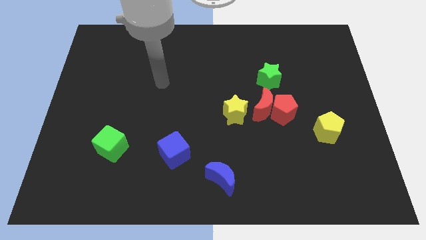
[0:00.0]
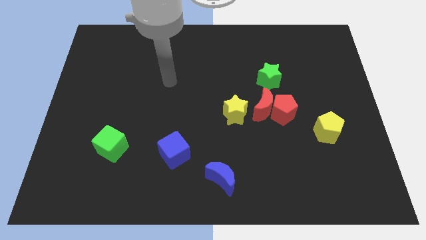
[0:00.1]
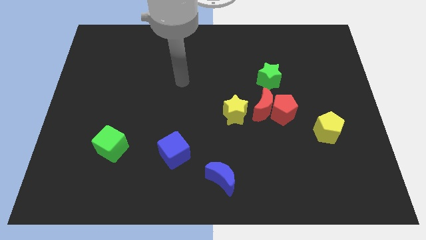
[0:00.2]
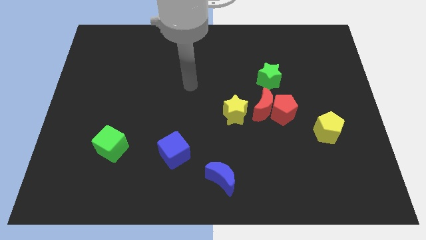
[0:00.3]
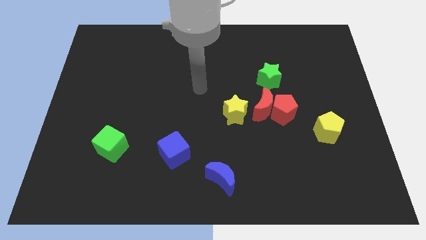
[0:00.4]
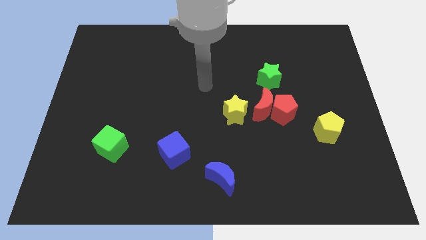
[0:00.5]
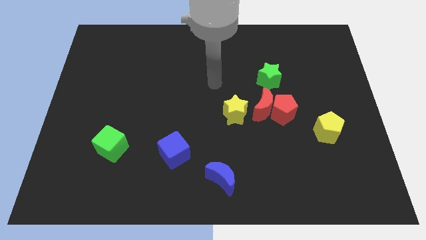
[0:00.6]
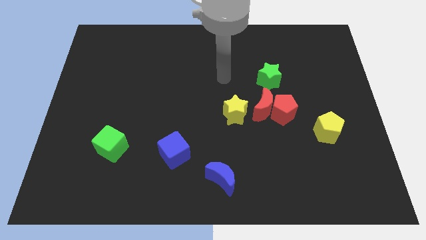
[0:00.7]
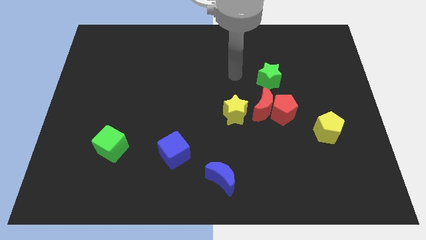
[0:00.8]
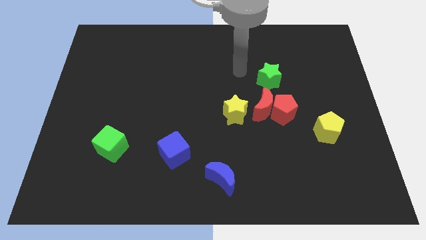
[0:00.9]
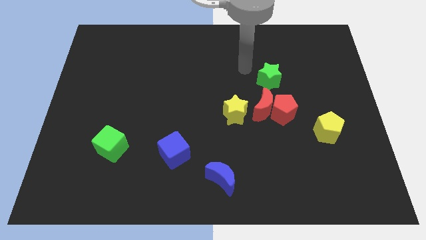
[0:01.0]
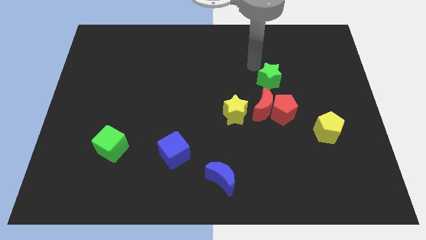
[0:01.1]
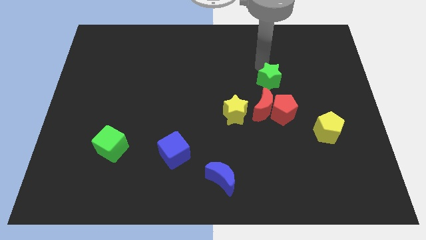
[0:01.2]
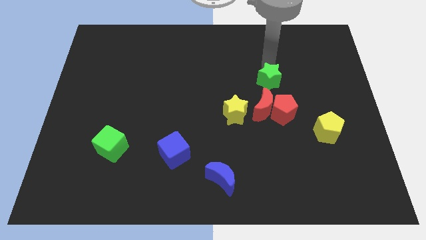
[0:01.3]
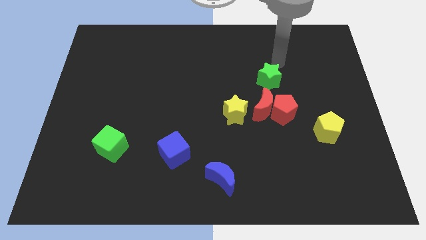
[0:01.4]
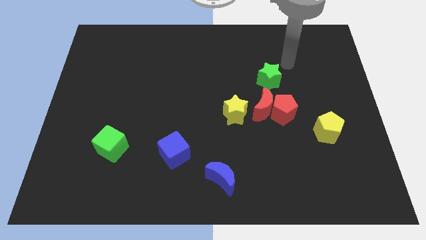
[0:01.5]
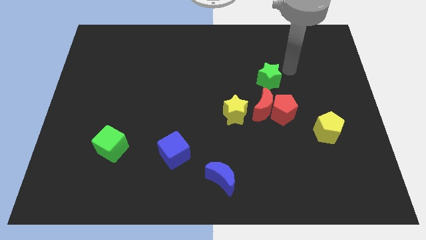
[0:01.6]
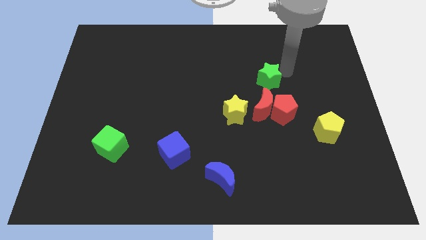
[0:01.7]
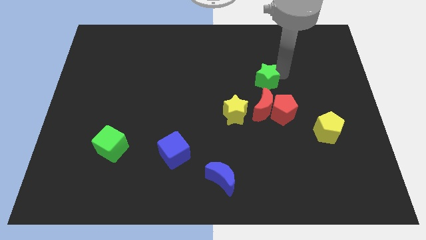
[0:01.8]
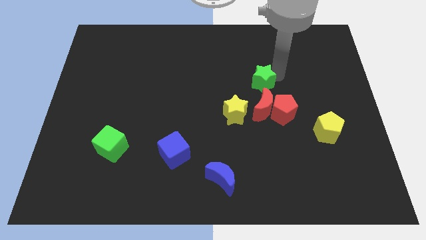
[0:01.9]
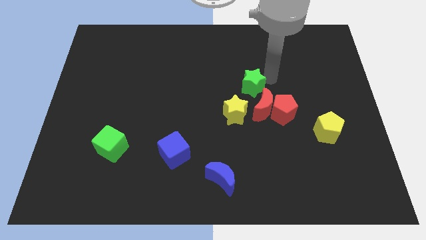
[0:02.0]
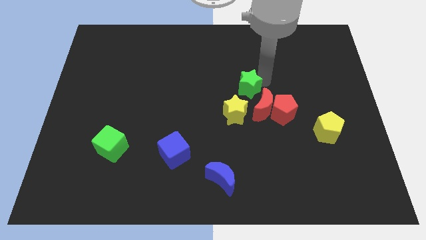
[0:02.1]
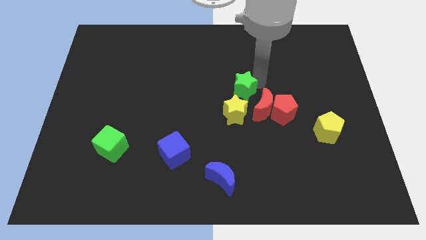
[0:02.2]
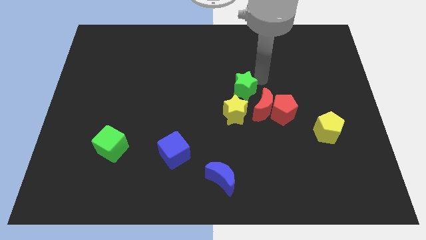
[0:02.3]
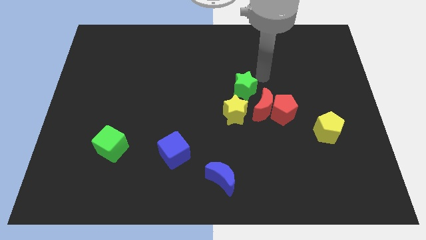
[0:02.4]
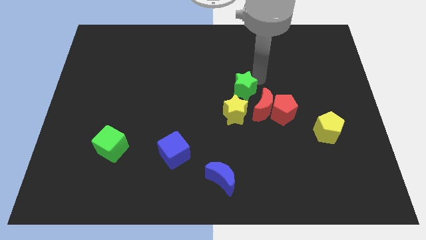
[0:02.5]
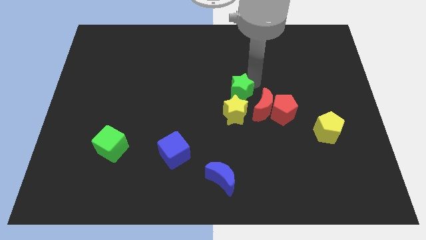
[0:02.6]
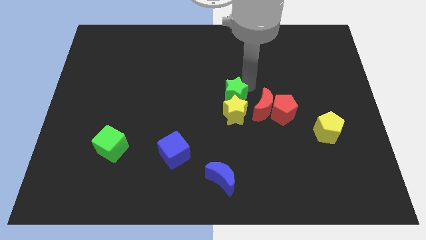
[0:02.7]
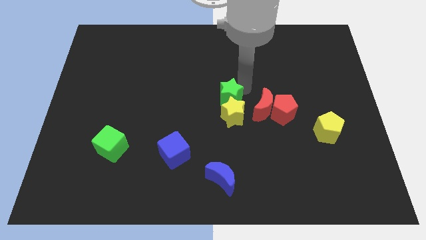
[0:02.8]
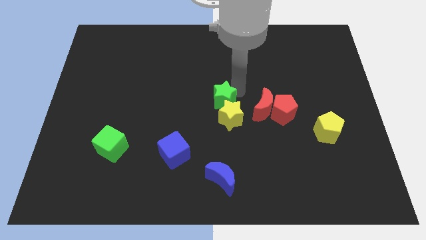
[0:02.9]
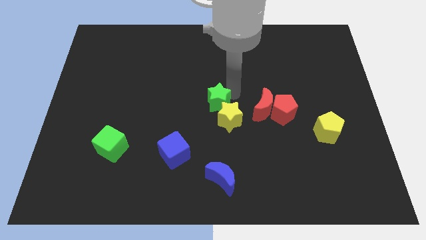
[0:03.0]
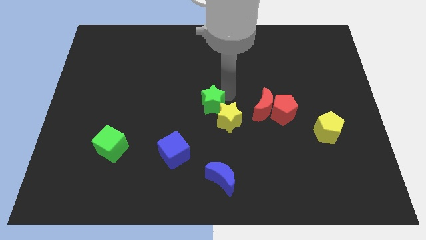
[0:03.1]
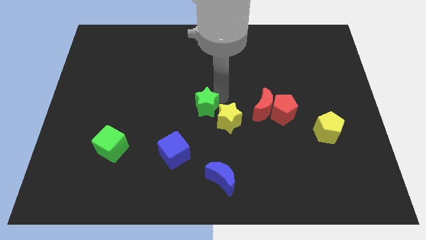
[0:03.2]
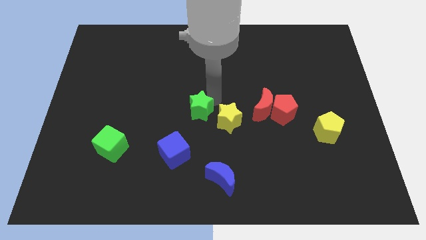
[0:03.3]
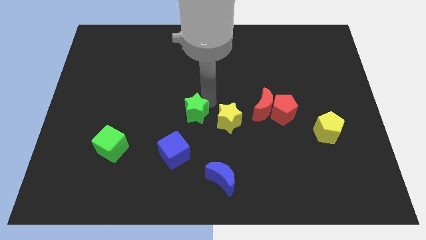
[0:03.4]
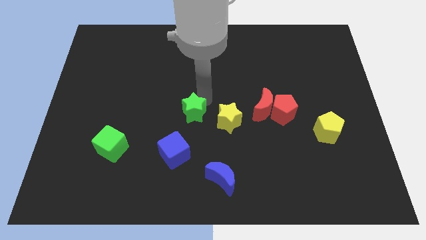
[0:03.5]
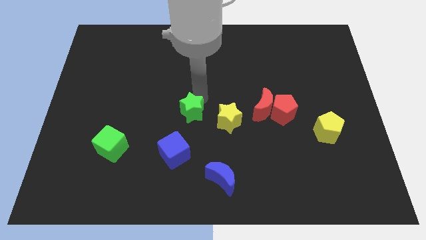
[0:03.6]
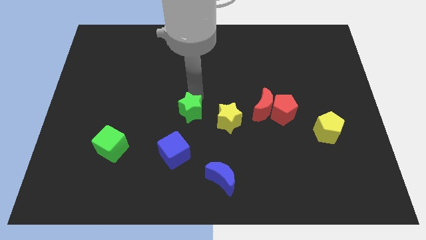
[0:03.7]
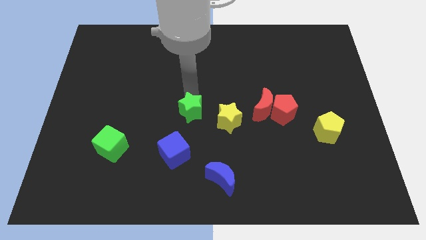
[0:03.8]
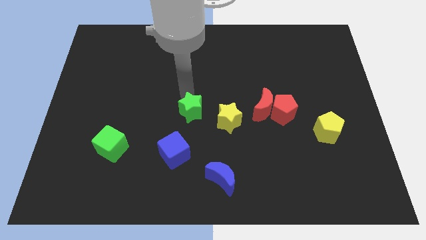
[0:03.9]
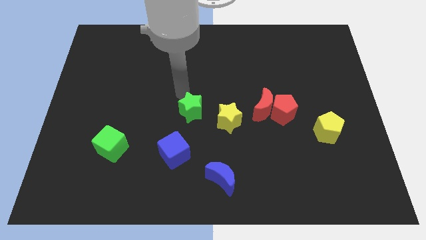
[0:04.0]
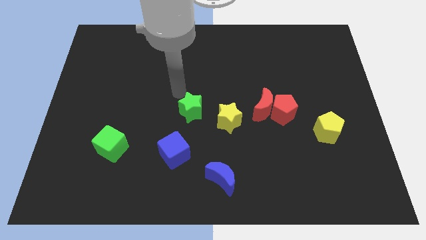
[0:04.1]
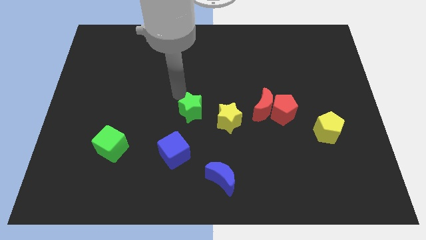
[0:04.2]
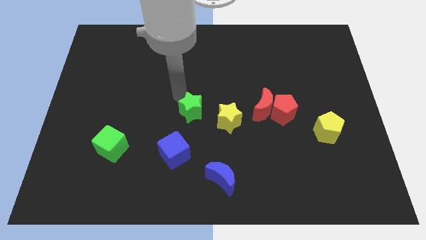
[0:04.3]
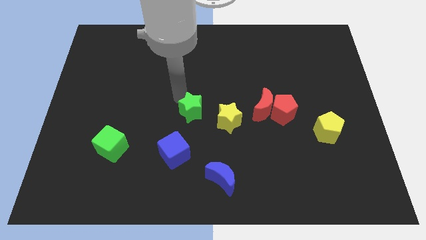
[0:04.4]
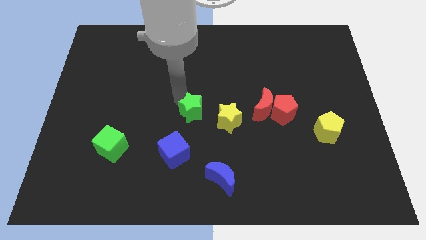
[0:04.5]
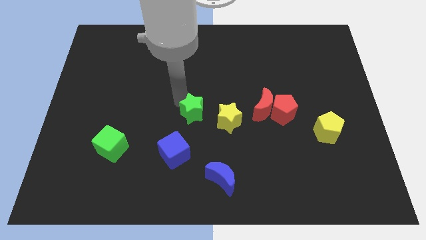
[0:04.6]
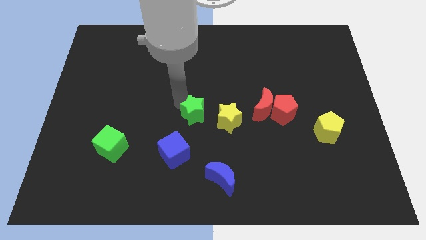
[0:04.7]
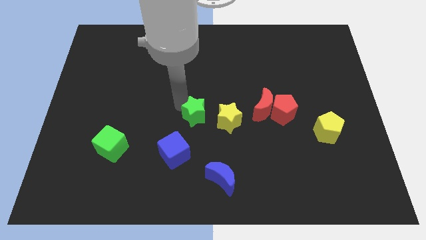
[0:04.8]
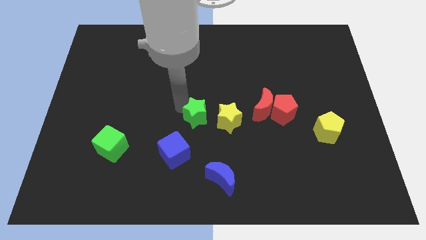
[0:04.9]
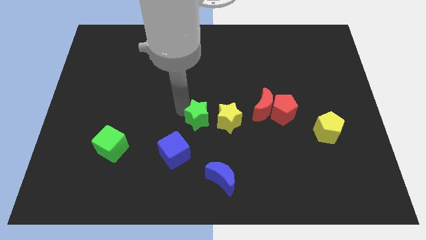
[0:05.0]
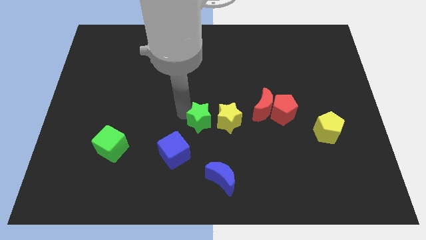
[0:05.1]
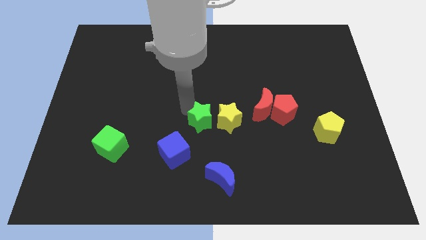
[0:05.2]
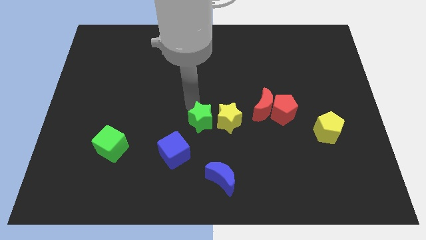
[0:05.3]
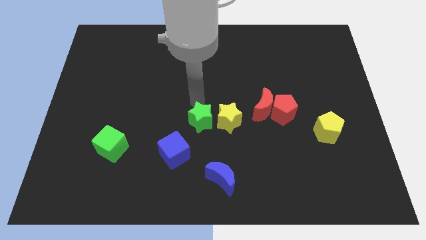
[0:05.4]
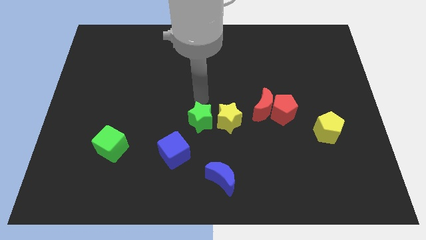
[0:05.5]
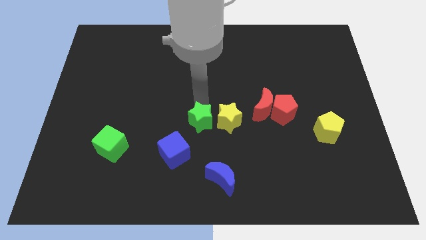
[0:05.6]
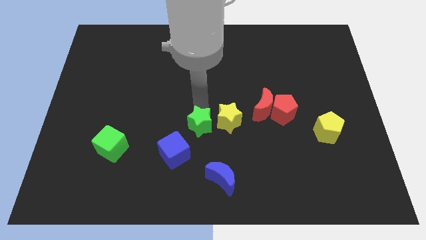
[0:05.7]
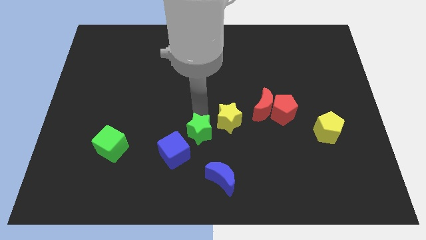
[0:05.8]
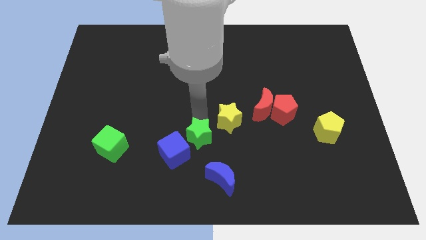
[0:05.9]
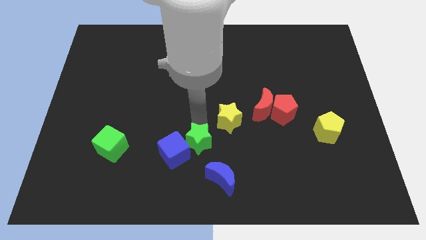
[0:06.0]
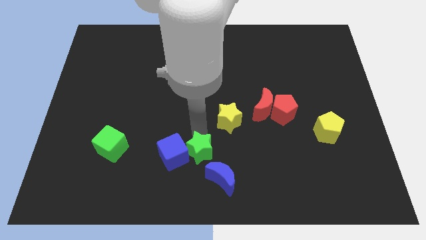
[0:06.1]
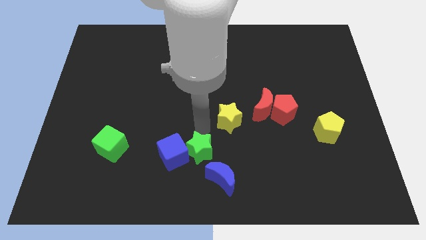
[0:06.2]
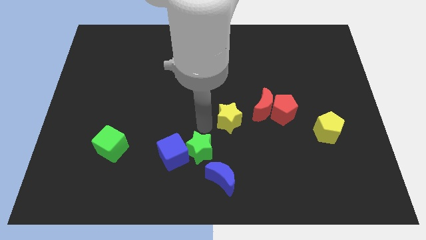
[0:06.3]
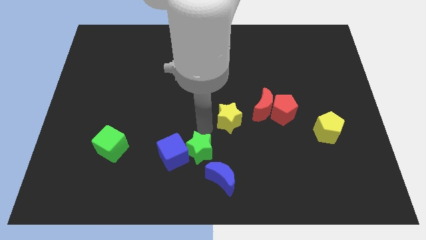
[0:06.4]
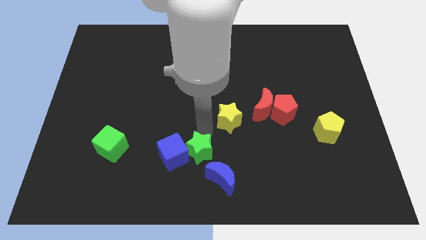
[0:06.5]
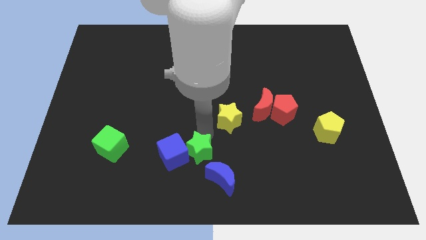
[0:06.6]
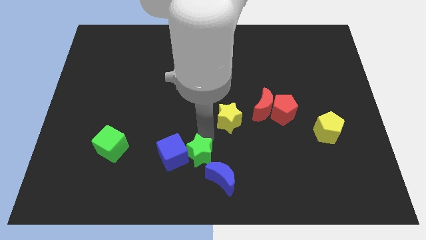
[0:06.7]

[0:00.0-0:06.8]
slide the green star to the bottom
